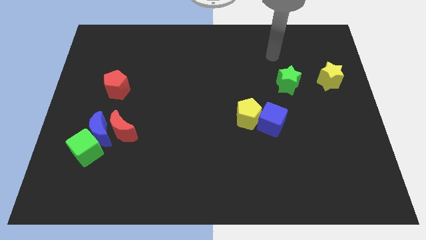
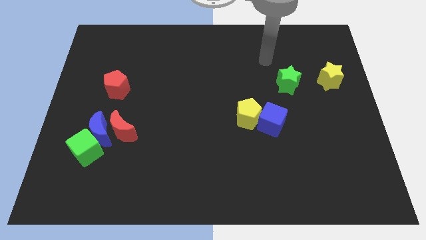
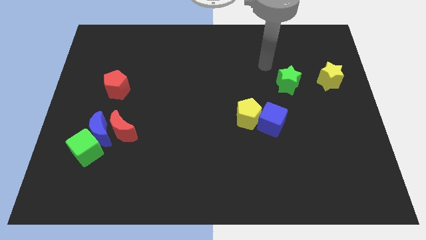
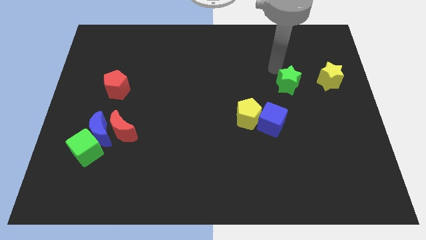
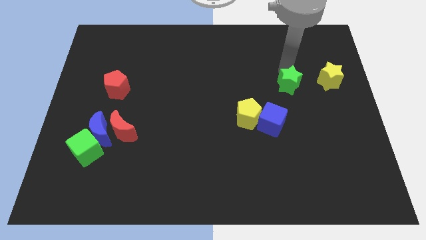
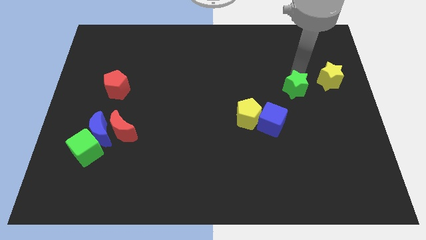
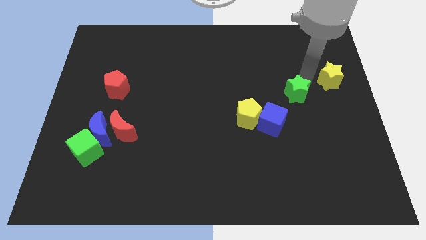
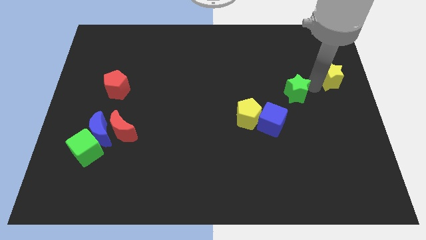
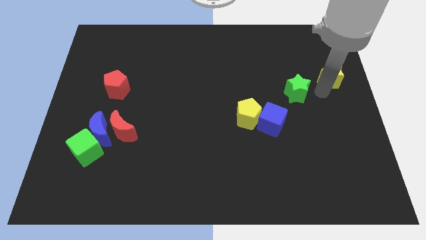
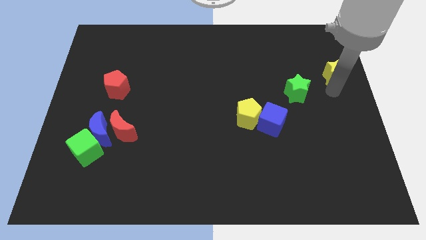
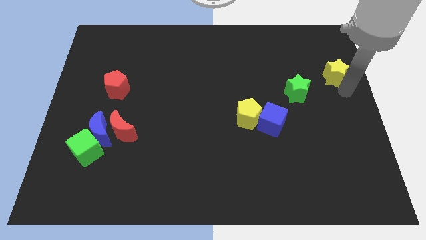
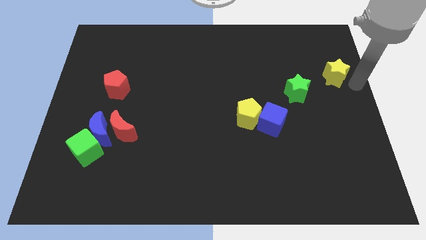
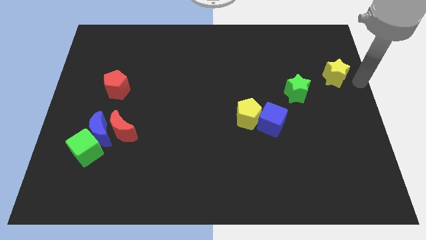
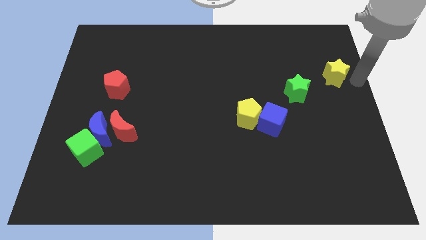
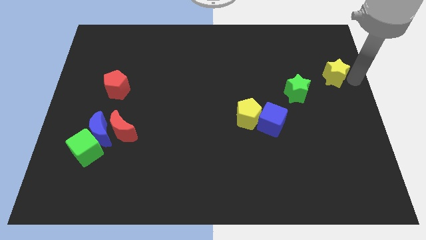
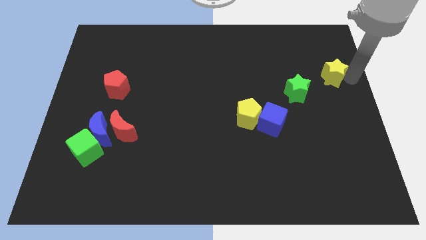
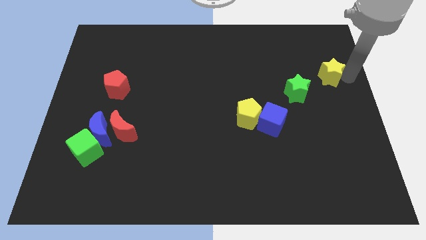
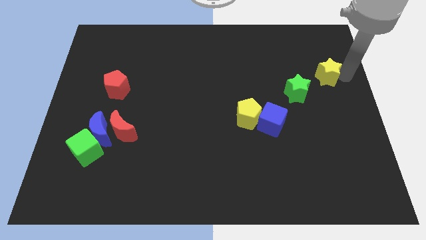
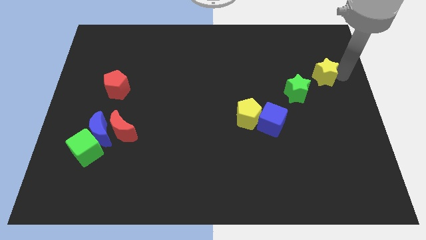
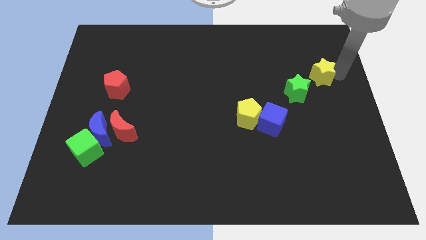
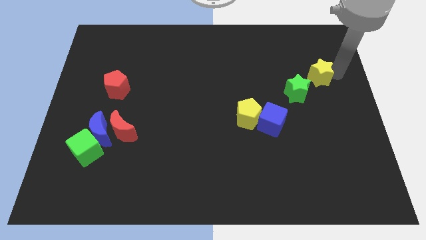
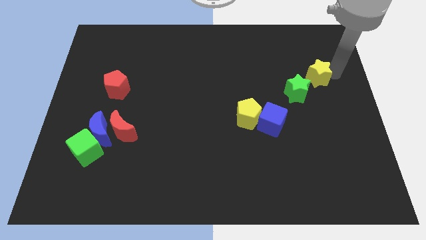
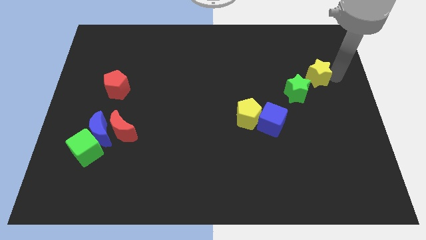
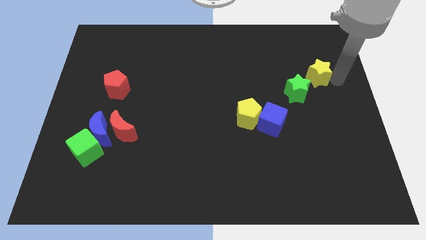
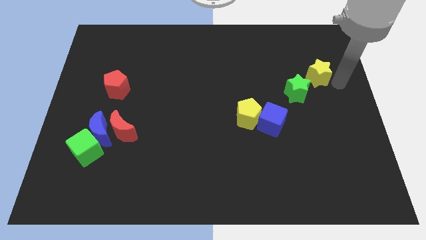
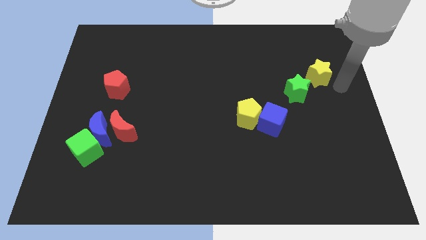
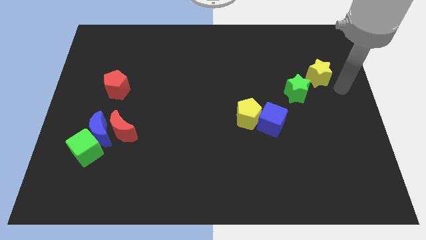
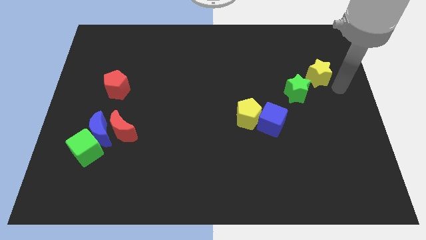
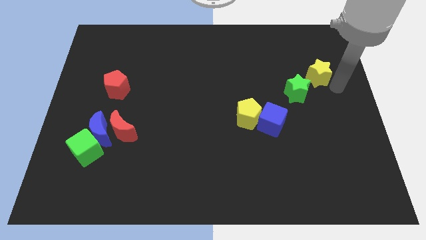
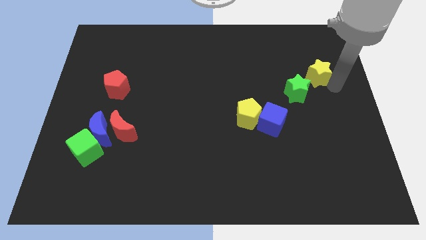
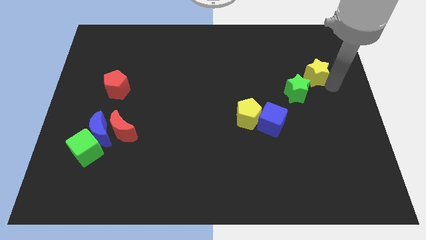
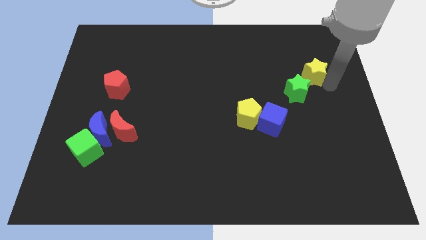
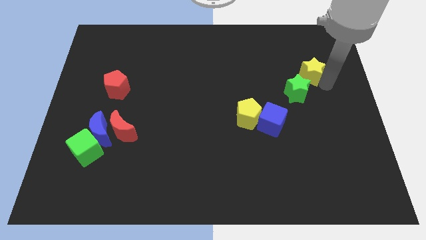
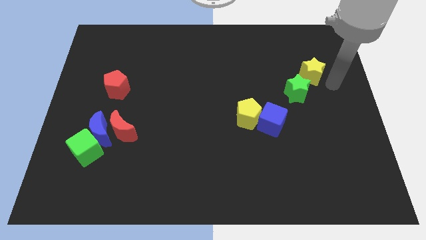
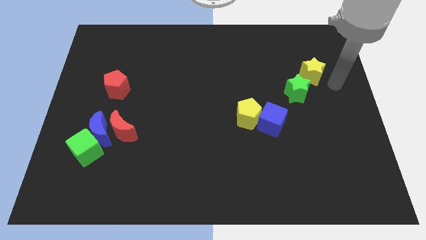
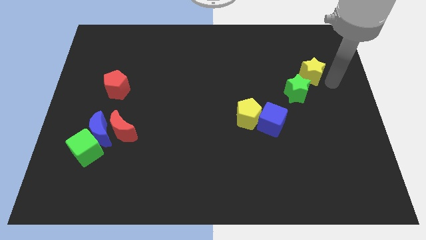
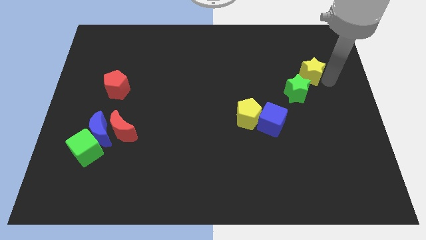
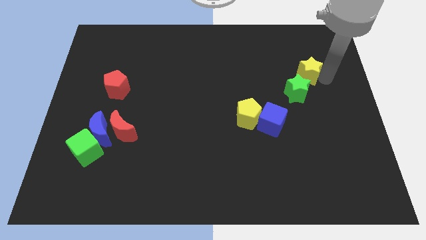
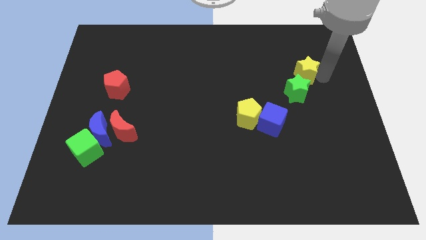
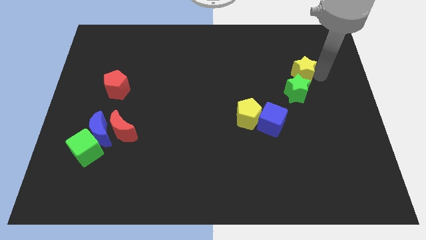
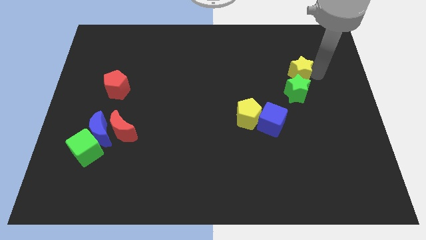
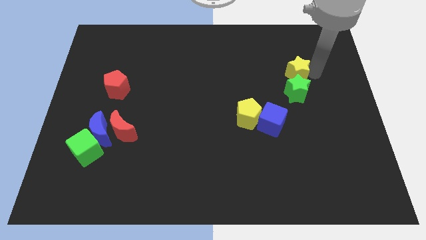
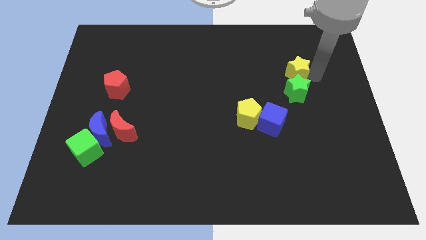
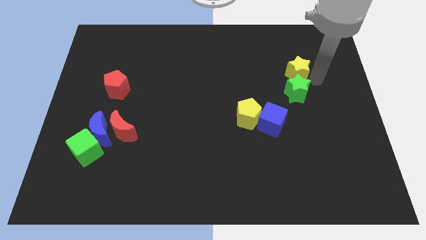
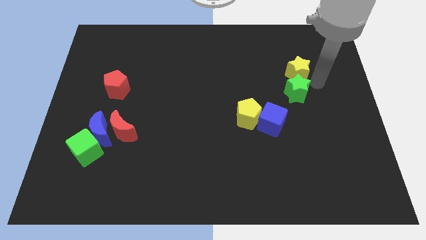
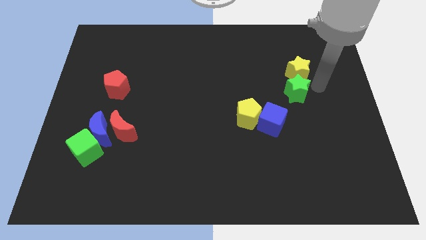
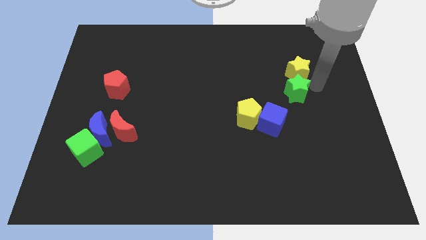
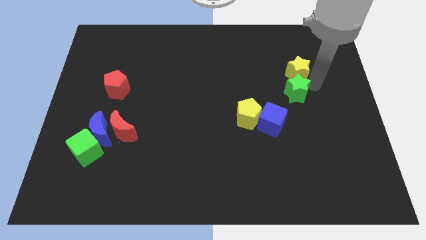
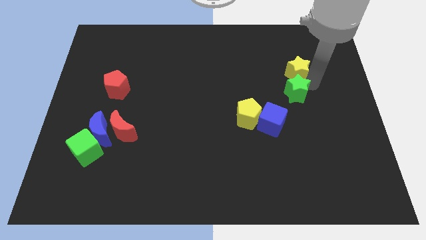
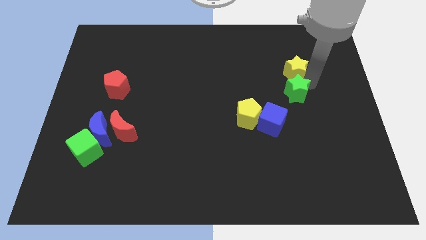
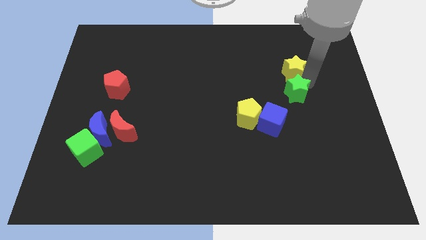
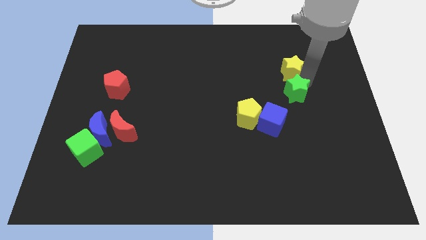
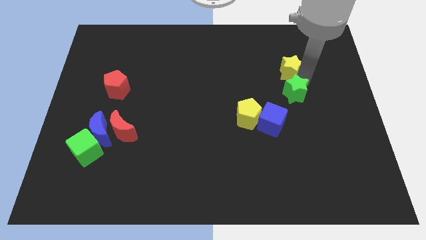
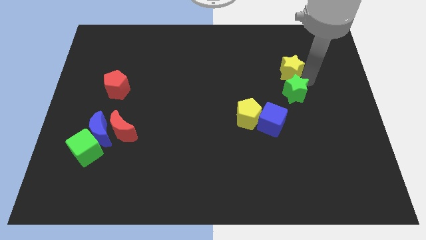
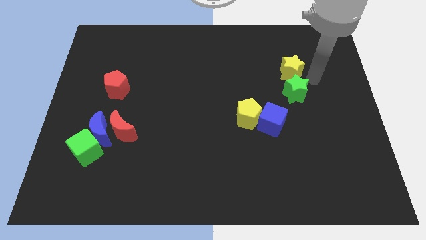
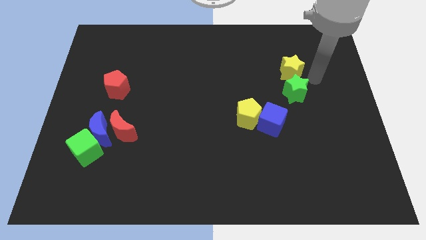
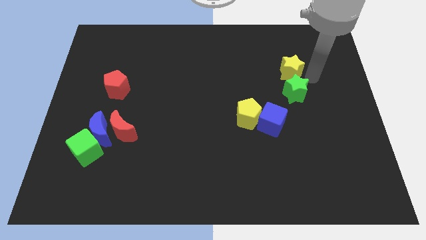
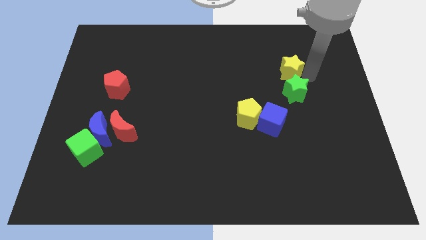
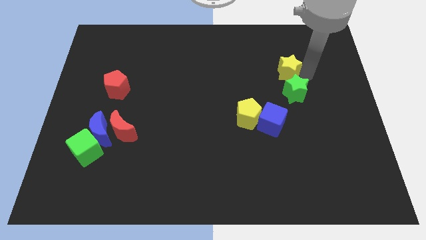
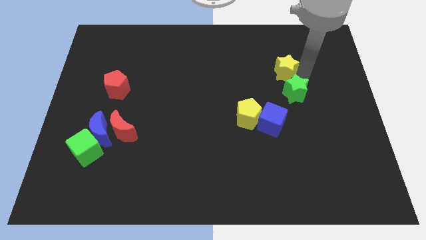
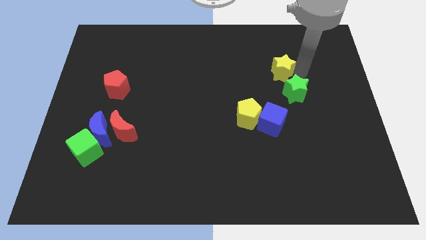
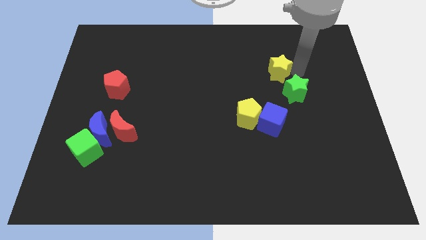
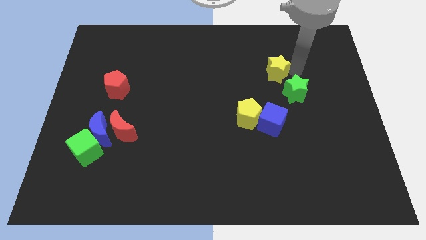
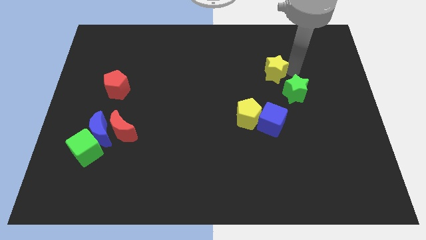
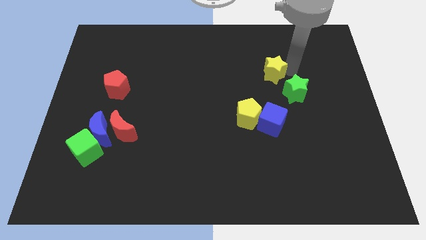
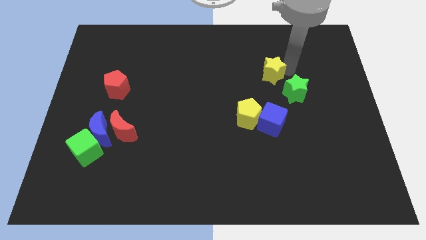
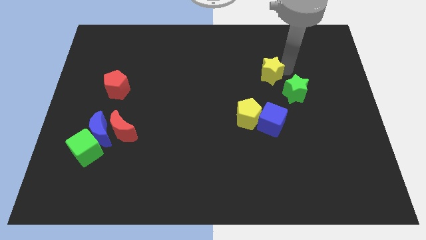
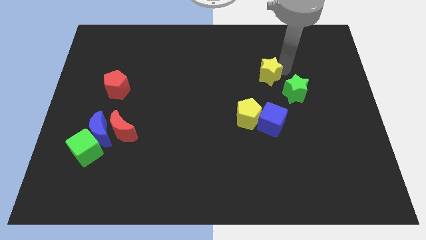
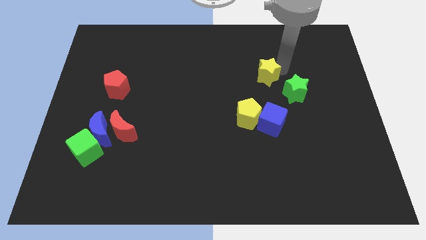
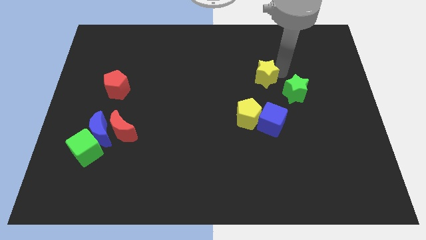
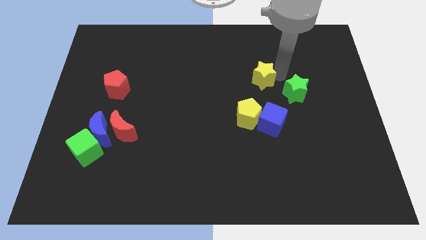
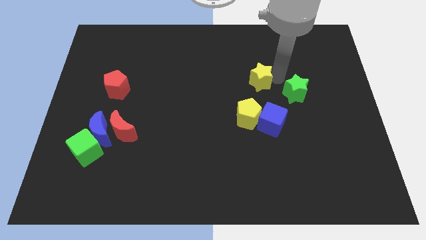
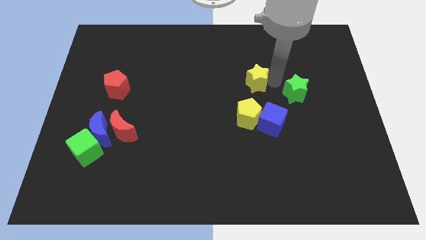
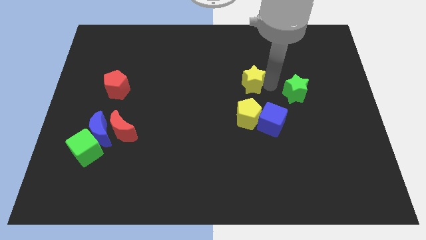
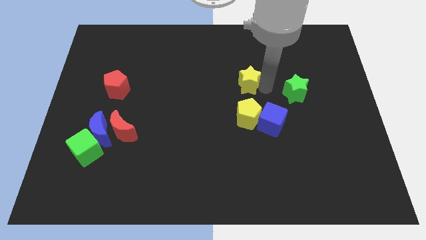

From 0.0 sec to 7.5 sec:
slide the yellow star to the left

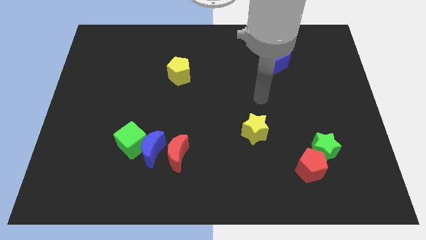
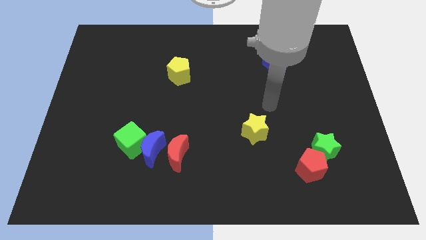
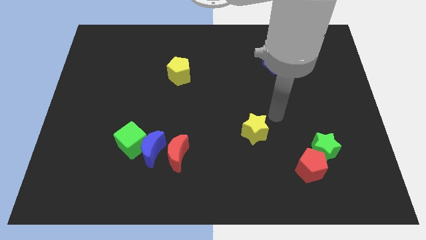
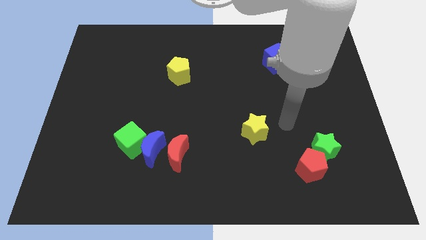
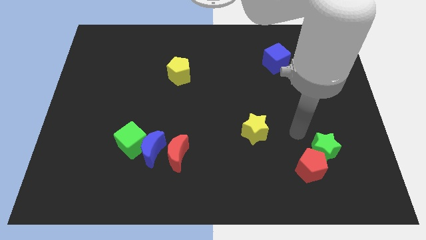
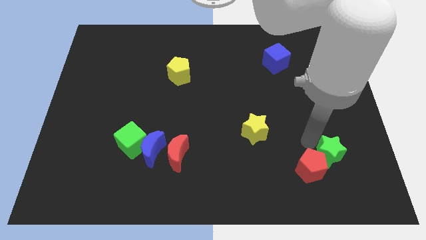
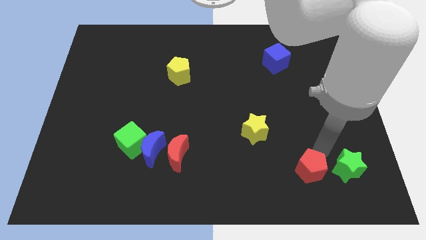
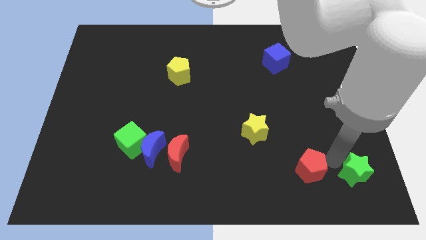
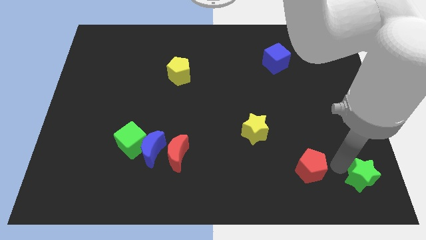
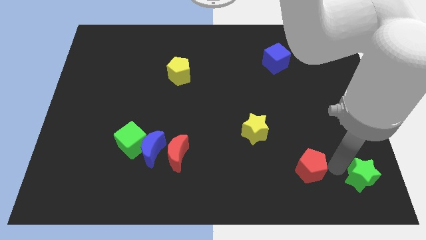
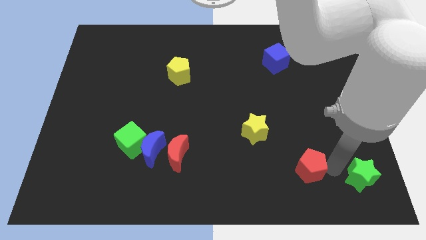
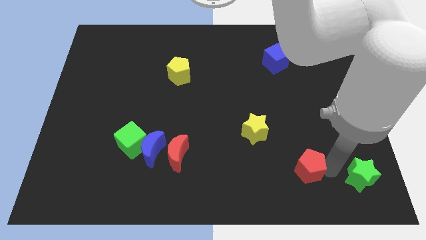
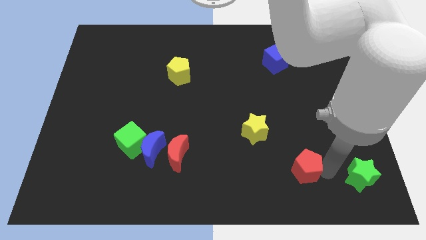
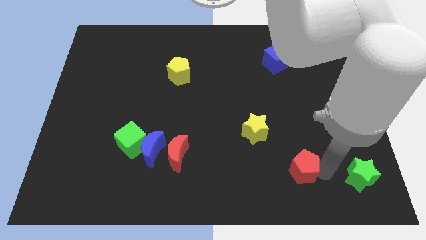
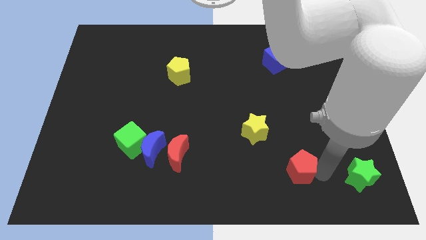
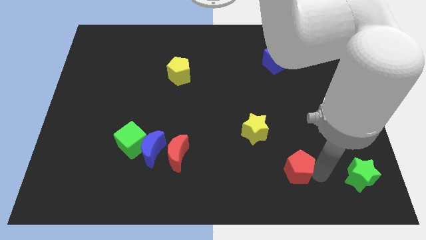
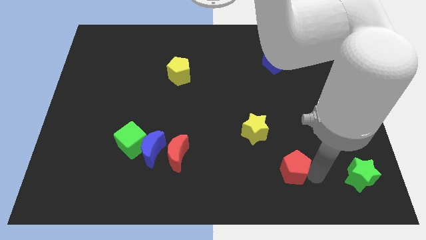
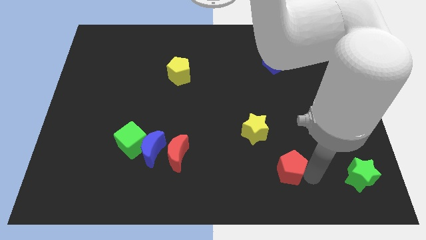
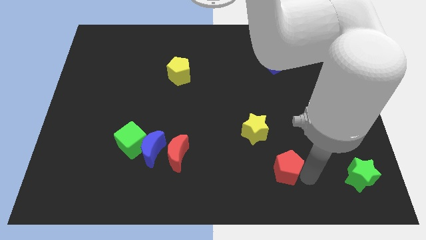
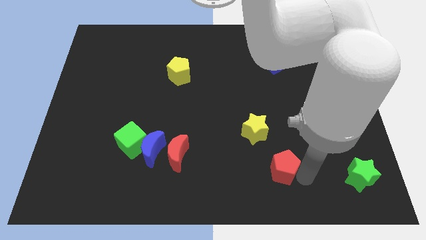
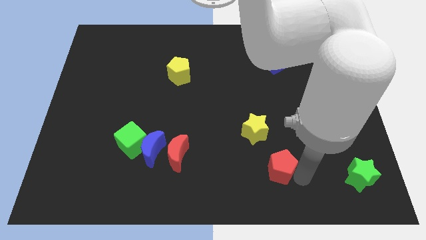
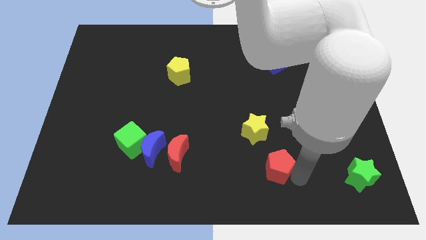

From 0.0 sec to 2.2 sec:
slightly move the red pentagon to the left
